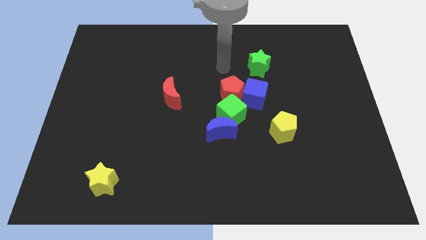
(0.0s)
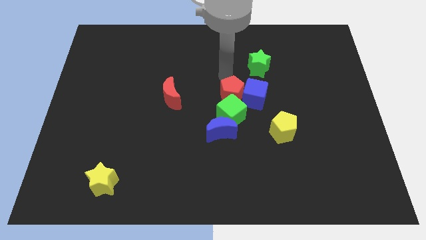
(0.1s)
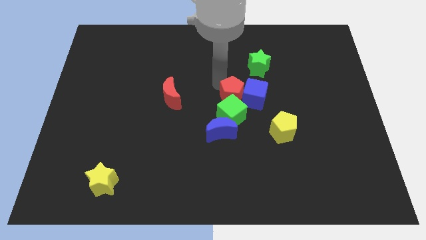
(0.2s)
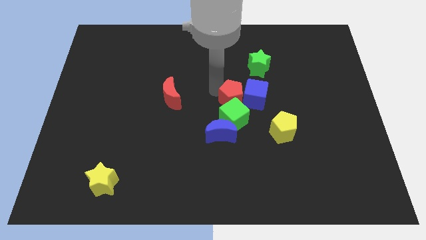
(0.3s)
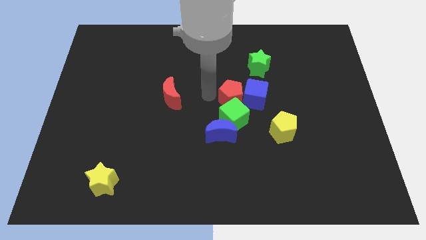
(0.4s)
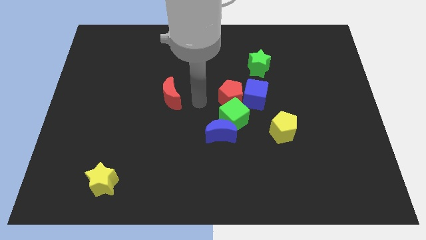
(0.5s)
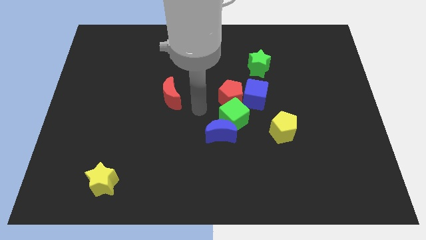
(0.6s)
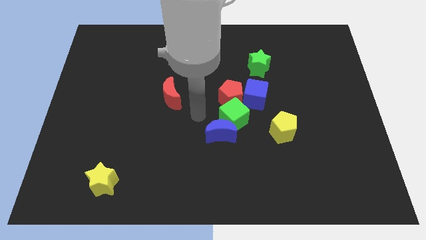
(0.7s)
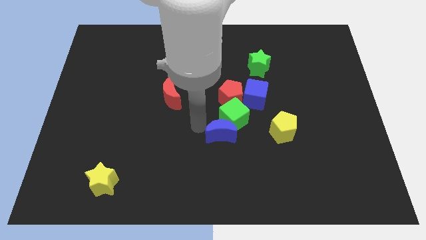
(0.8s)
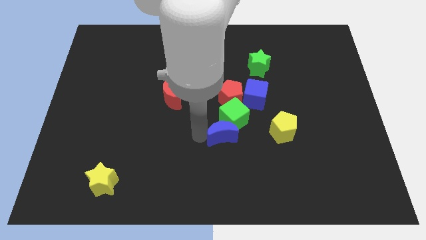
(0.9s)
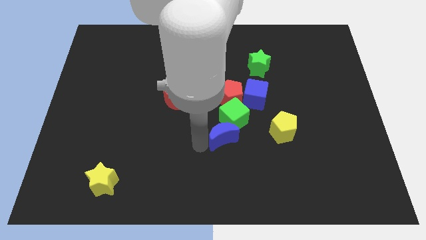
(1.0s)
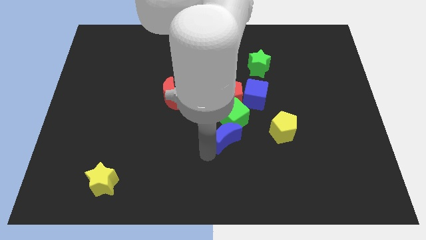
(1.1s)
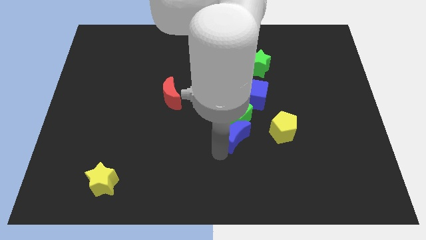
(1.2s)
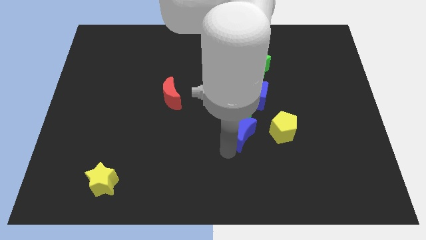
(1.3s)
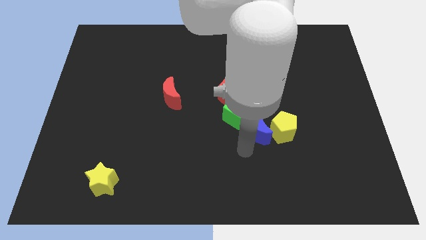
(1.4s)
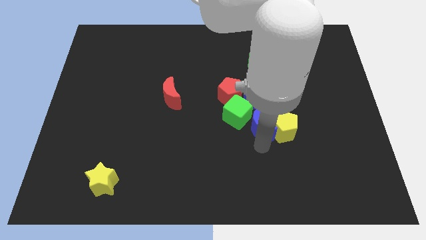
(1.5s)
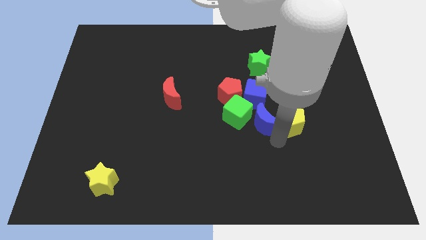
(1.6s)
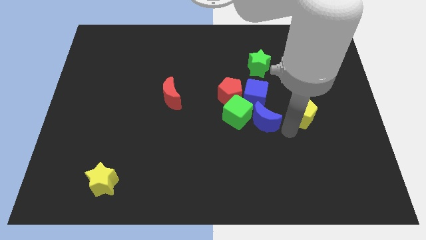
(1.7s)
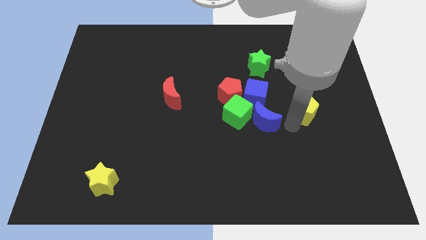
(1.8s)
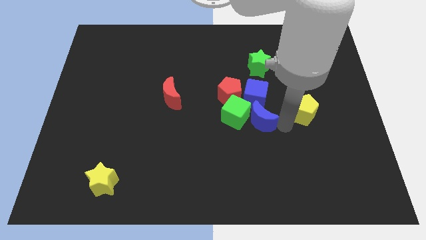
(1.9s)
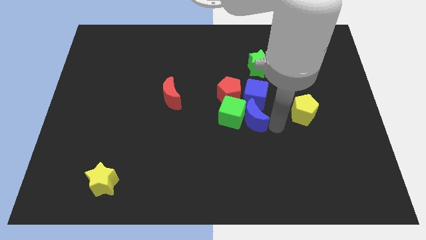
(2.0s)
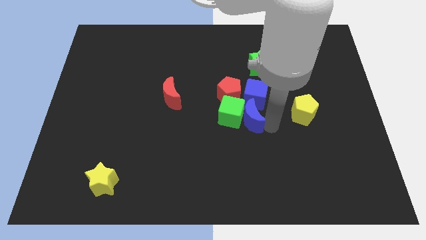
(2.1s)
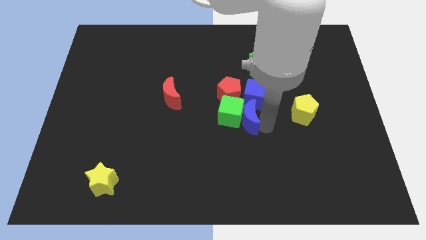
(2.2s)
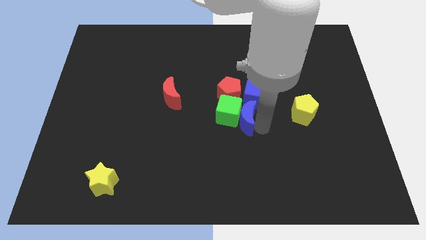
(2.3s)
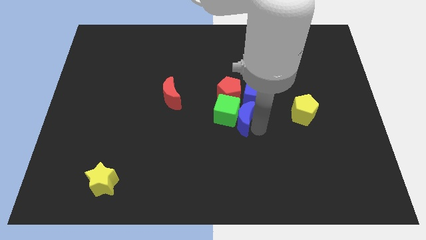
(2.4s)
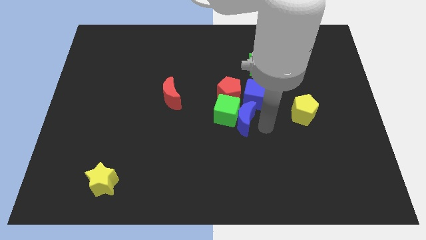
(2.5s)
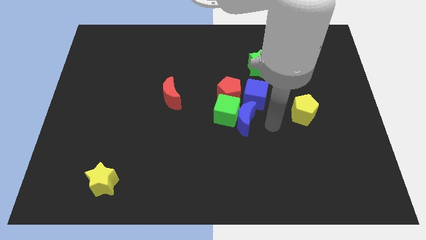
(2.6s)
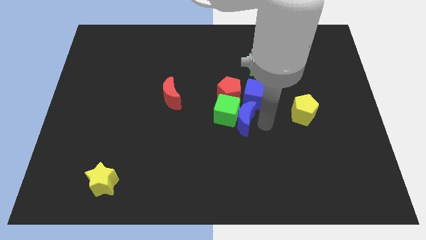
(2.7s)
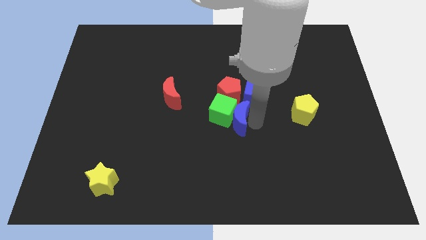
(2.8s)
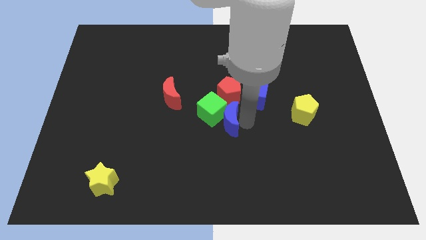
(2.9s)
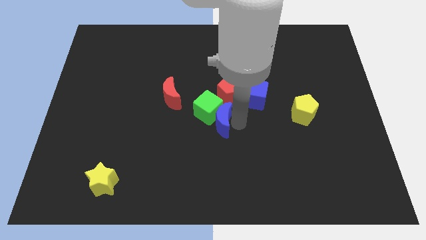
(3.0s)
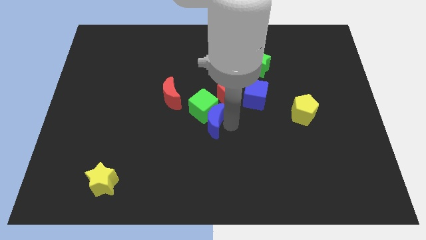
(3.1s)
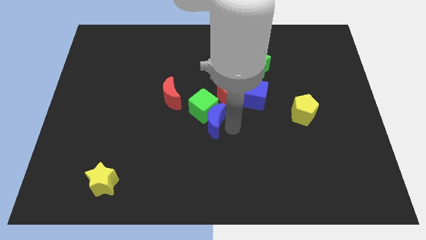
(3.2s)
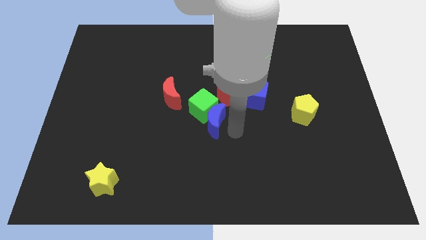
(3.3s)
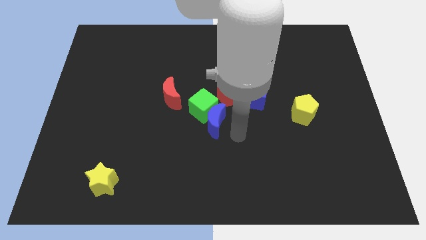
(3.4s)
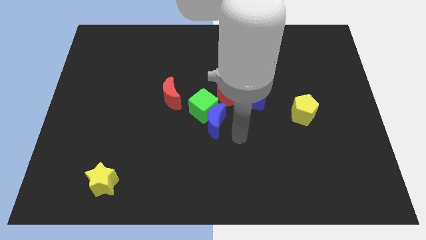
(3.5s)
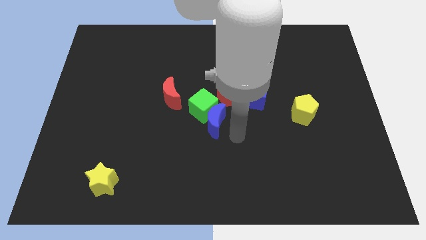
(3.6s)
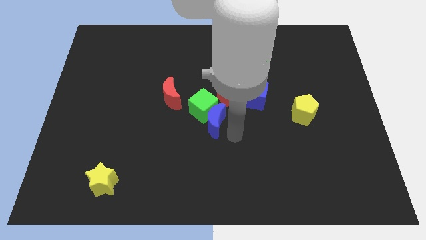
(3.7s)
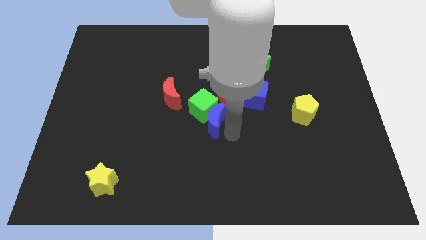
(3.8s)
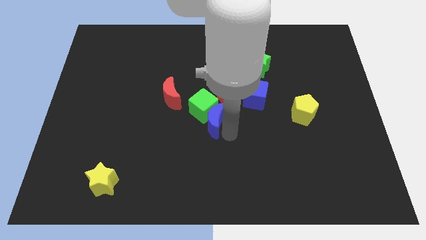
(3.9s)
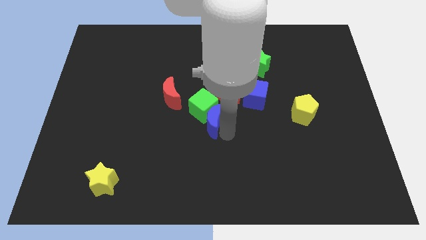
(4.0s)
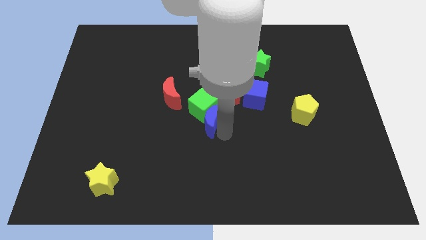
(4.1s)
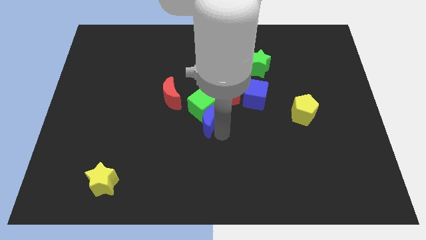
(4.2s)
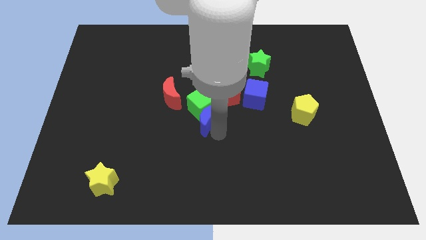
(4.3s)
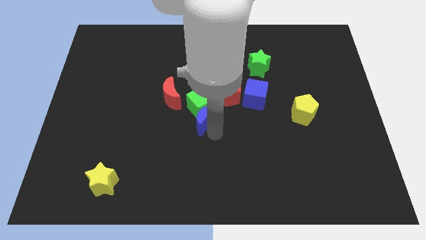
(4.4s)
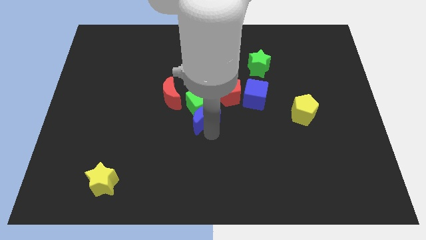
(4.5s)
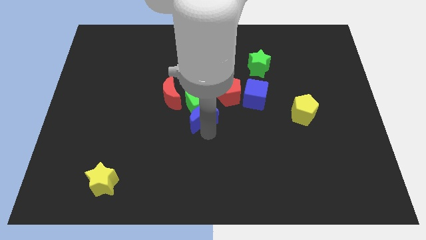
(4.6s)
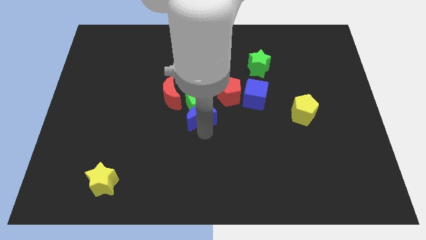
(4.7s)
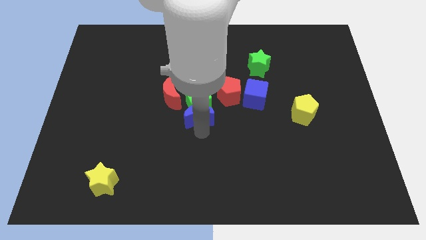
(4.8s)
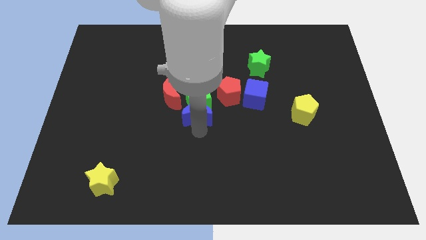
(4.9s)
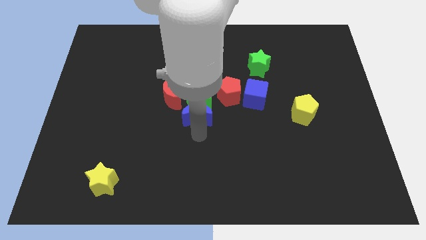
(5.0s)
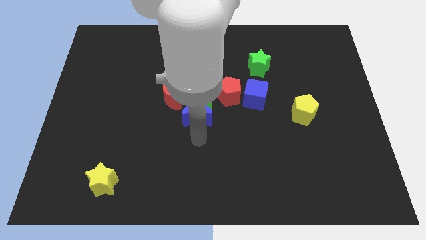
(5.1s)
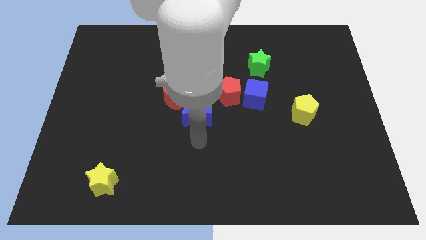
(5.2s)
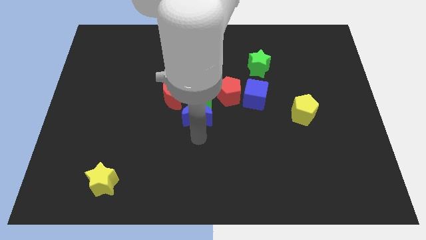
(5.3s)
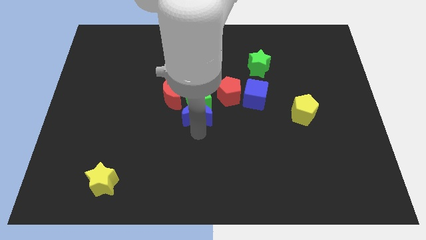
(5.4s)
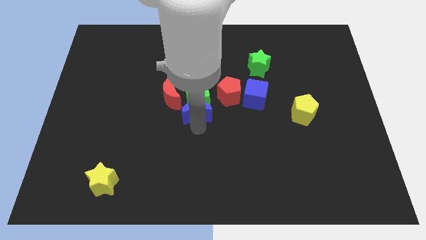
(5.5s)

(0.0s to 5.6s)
move the blue moon a little up and left diagonally

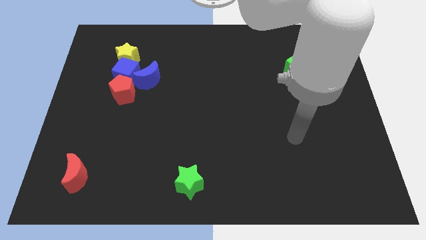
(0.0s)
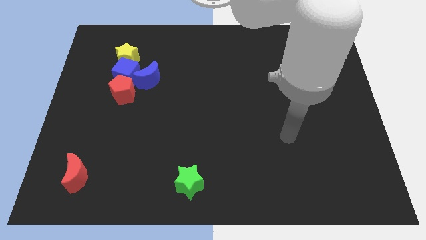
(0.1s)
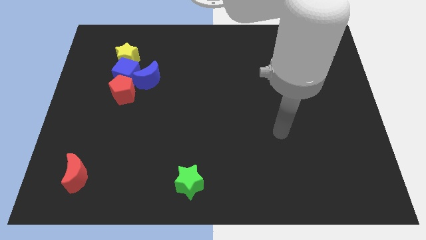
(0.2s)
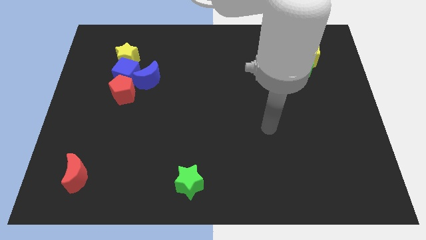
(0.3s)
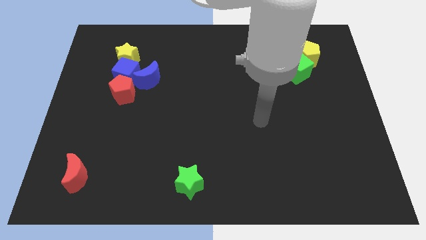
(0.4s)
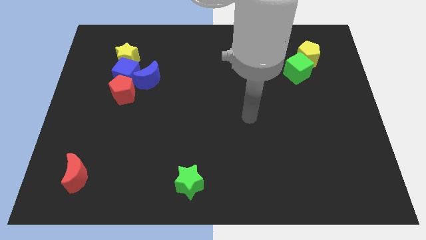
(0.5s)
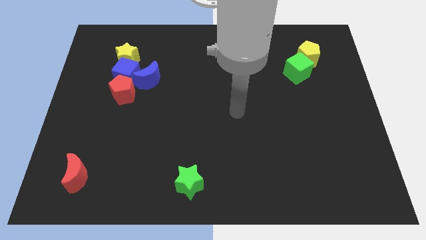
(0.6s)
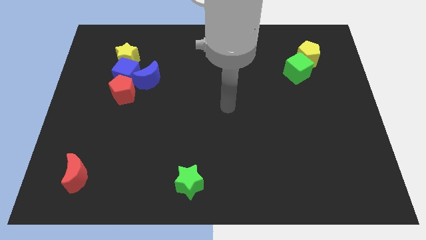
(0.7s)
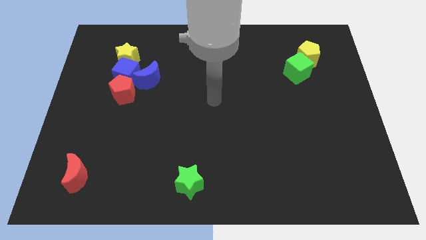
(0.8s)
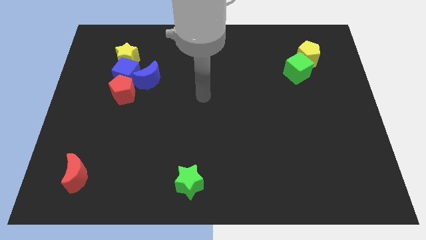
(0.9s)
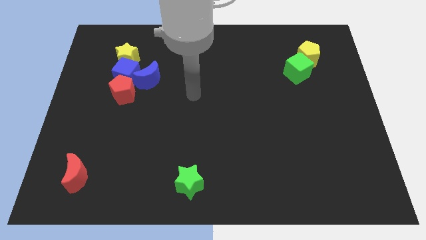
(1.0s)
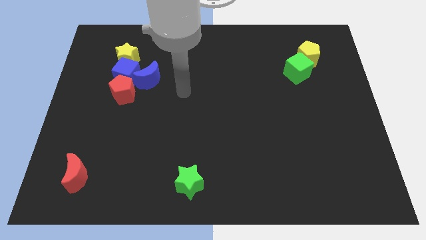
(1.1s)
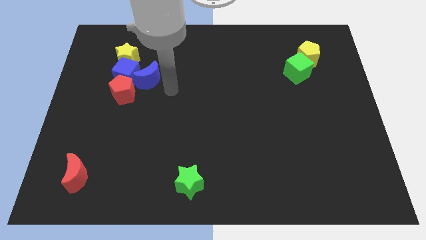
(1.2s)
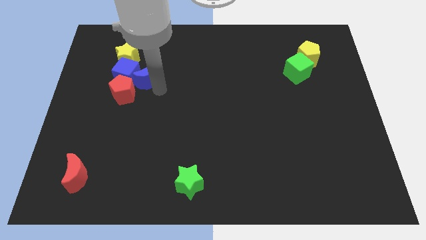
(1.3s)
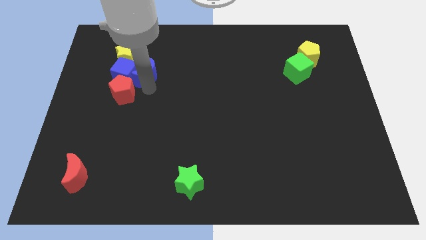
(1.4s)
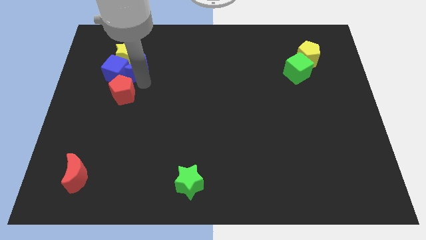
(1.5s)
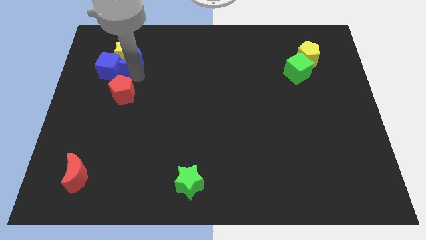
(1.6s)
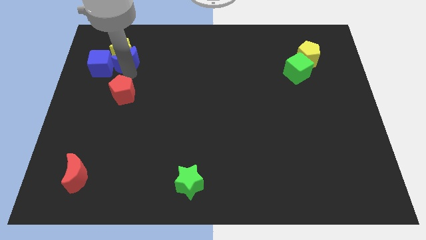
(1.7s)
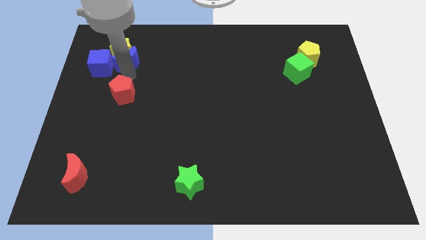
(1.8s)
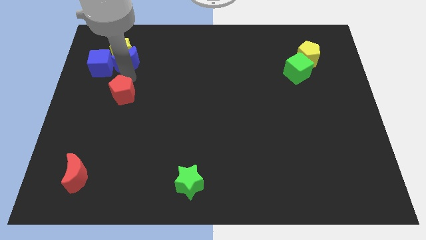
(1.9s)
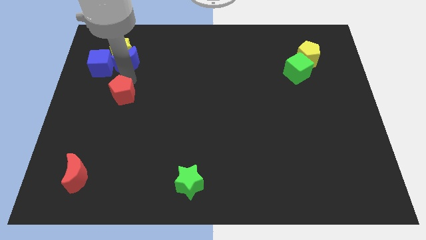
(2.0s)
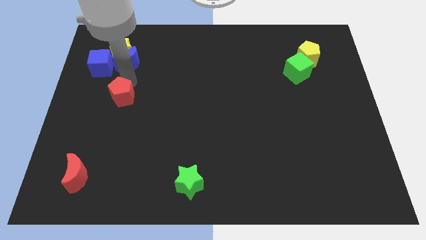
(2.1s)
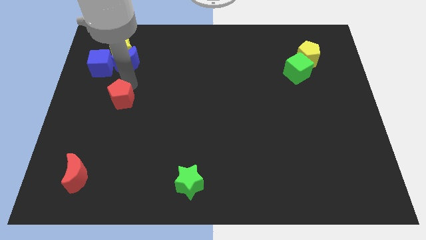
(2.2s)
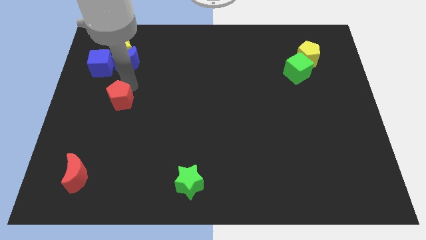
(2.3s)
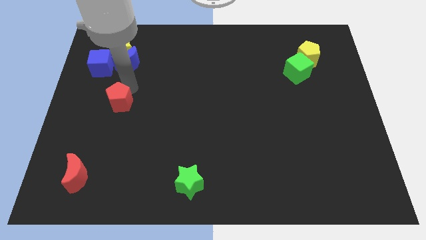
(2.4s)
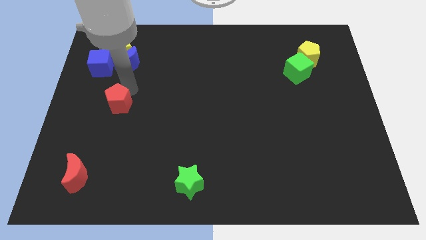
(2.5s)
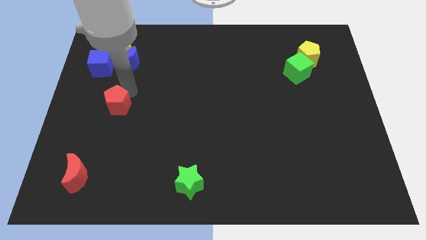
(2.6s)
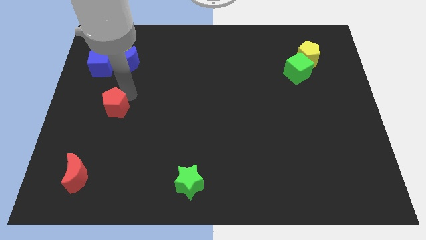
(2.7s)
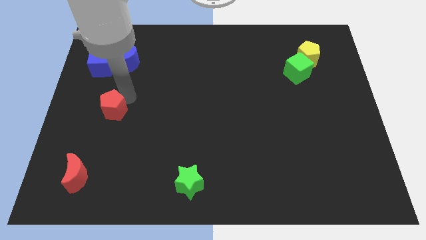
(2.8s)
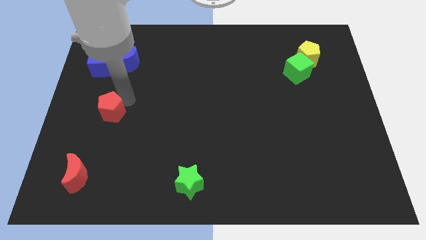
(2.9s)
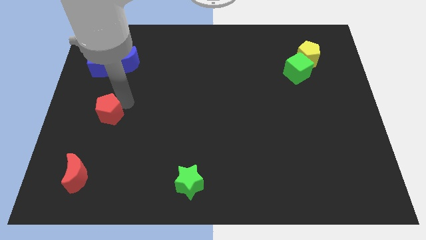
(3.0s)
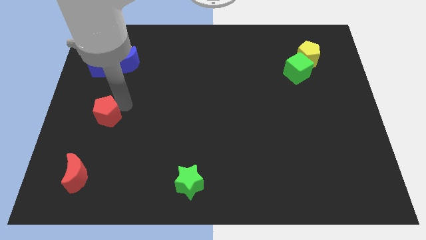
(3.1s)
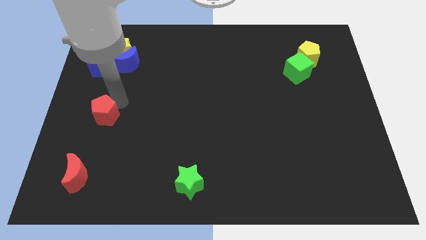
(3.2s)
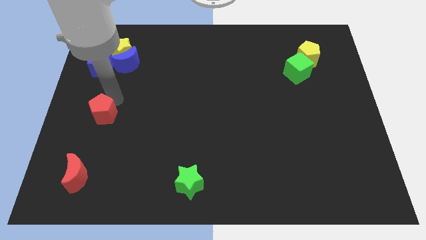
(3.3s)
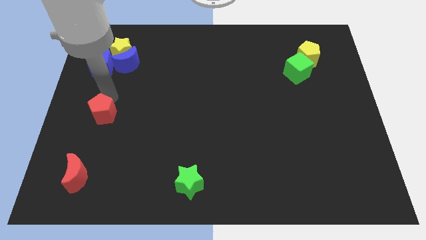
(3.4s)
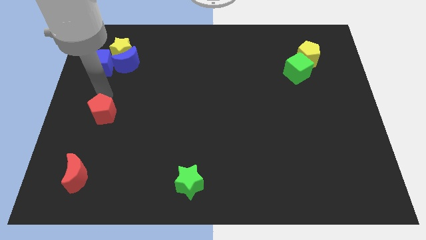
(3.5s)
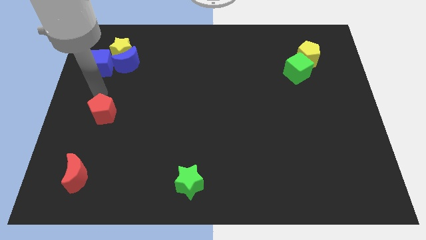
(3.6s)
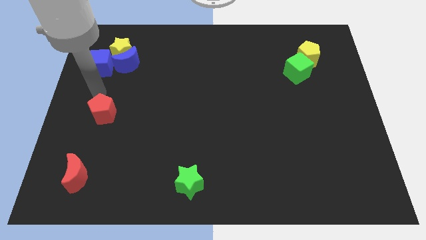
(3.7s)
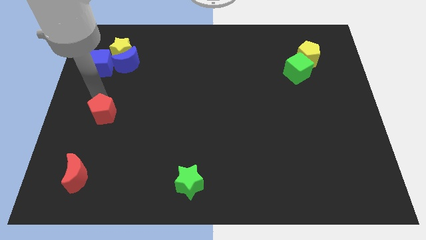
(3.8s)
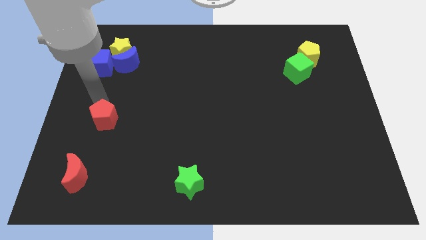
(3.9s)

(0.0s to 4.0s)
push the red pentagon downwards slightly
